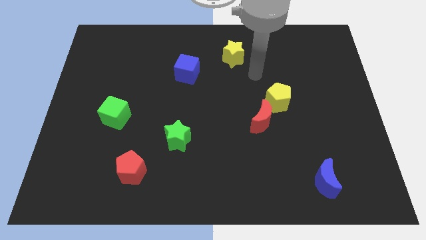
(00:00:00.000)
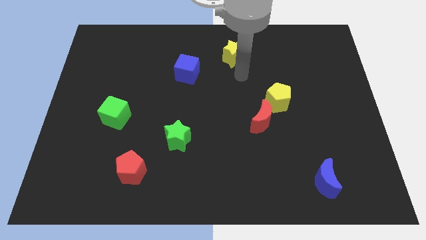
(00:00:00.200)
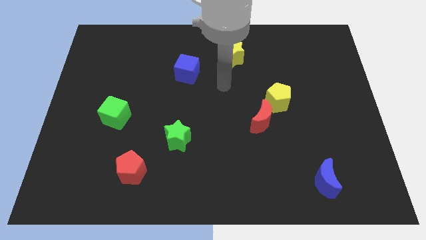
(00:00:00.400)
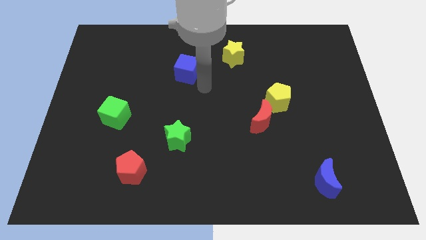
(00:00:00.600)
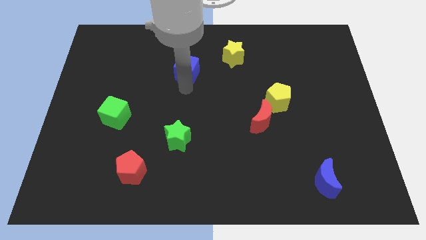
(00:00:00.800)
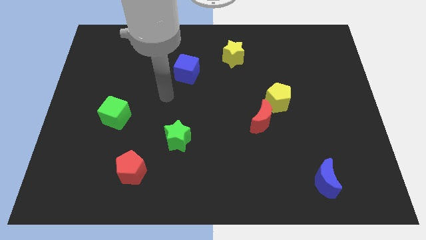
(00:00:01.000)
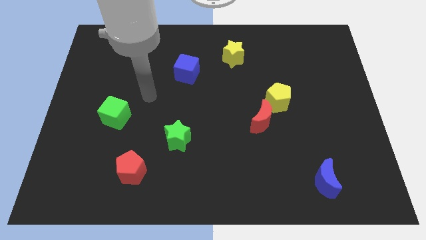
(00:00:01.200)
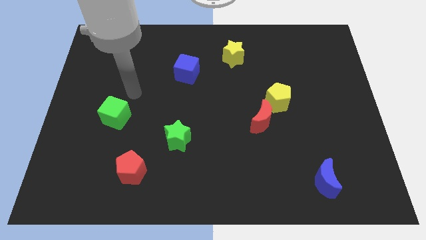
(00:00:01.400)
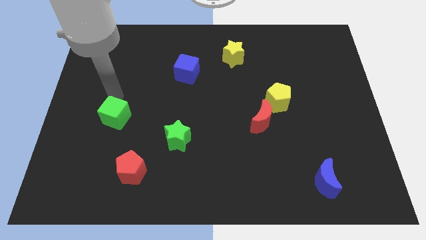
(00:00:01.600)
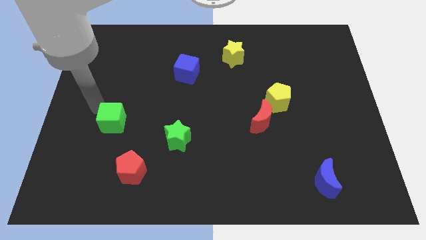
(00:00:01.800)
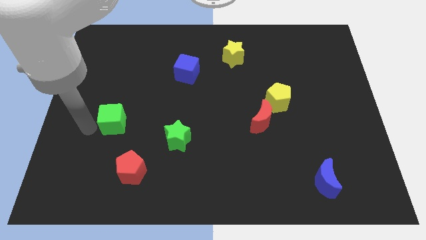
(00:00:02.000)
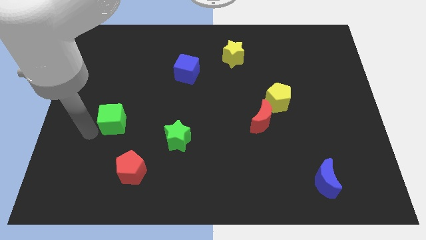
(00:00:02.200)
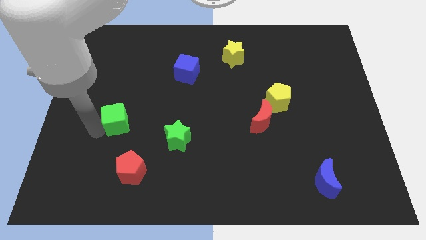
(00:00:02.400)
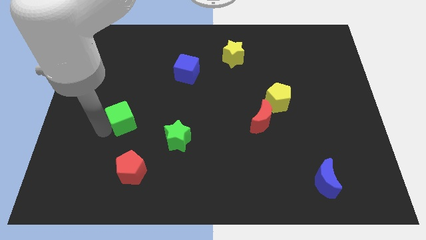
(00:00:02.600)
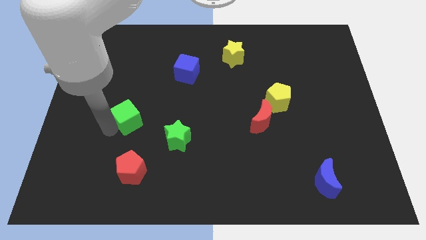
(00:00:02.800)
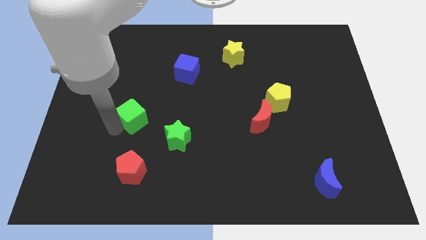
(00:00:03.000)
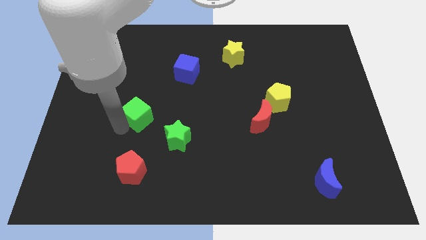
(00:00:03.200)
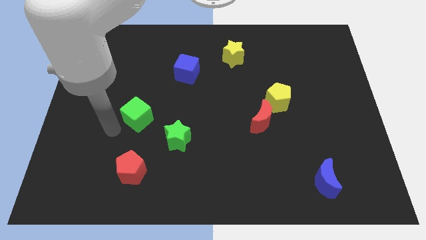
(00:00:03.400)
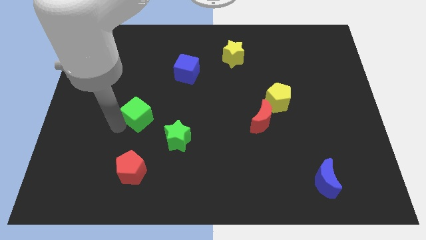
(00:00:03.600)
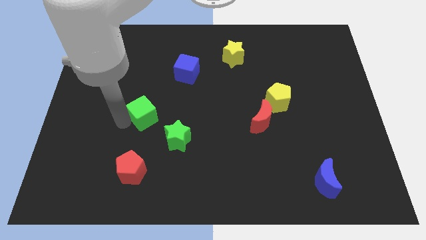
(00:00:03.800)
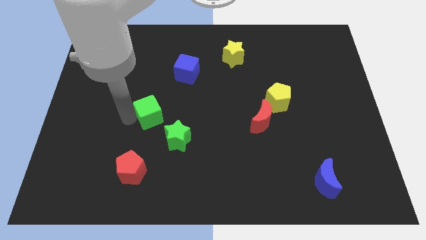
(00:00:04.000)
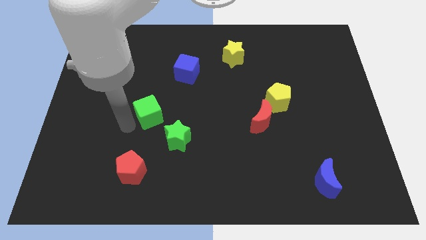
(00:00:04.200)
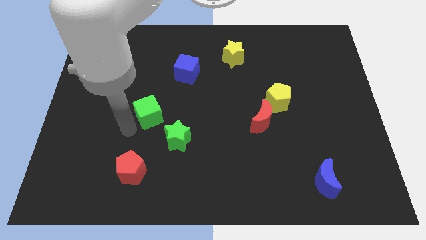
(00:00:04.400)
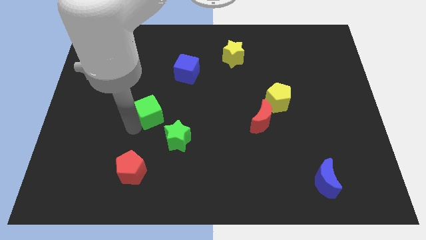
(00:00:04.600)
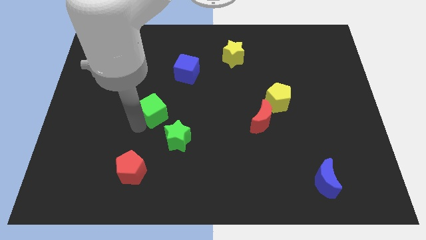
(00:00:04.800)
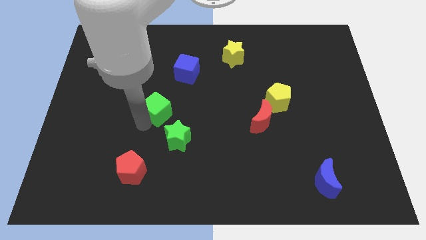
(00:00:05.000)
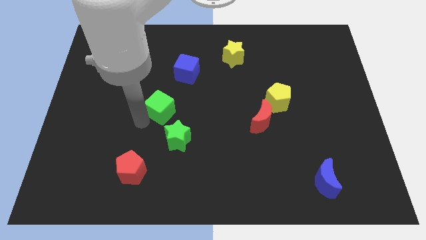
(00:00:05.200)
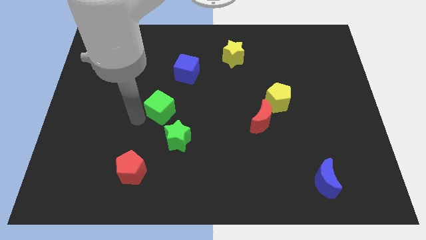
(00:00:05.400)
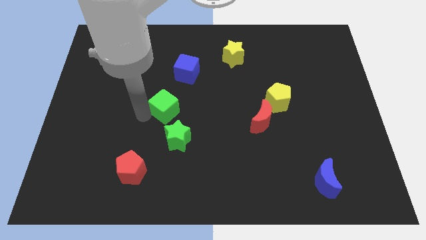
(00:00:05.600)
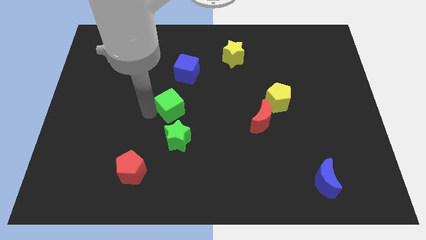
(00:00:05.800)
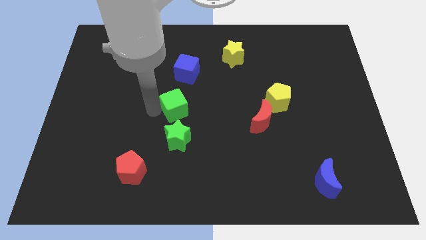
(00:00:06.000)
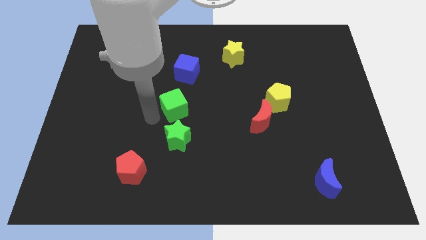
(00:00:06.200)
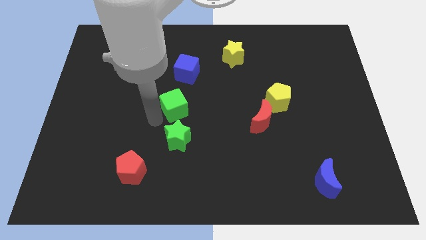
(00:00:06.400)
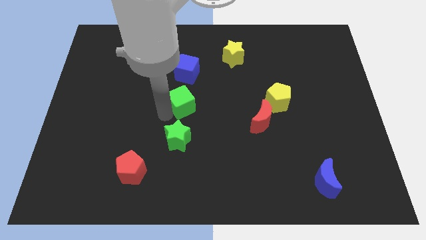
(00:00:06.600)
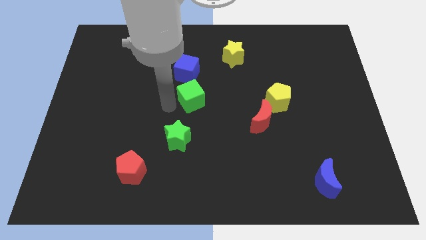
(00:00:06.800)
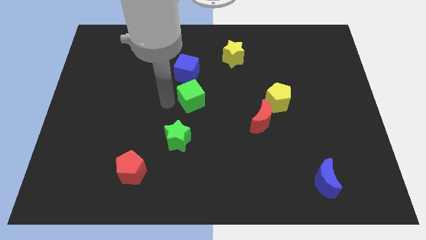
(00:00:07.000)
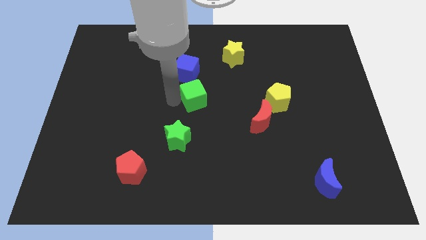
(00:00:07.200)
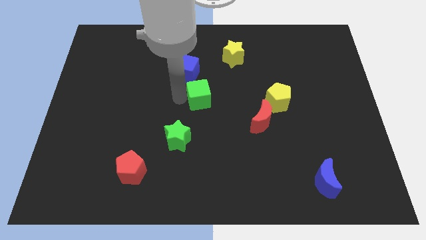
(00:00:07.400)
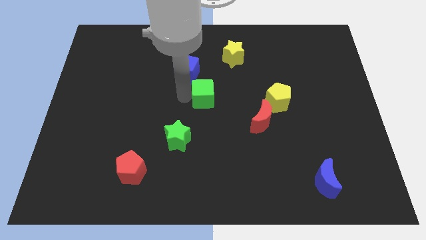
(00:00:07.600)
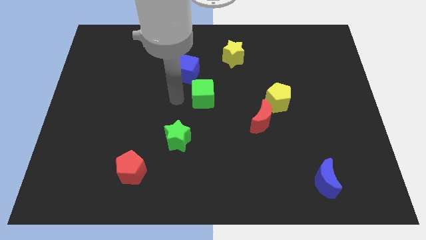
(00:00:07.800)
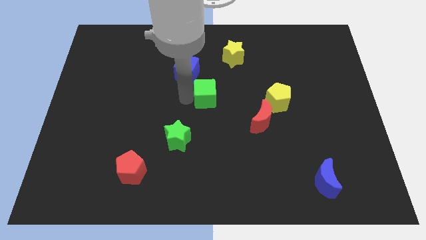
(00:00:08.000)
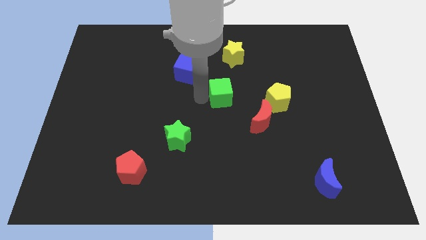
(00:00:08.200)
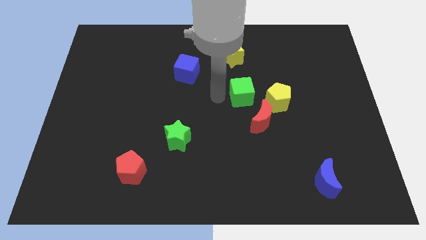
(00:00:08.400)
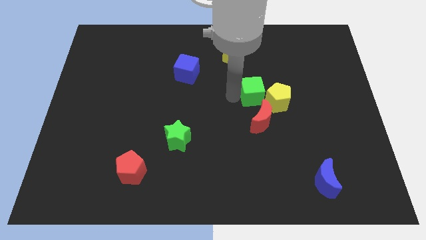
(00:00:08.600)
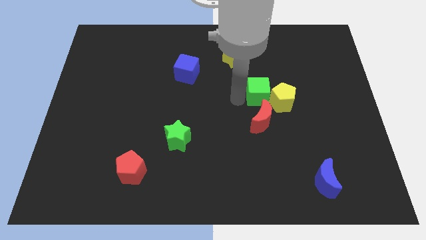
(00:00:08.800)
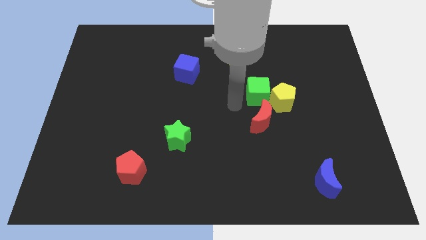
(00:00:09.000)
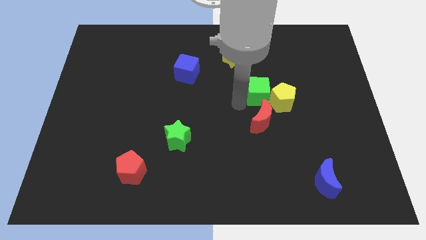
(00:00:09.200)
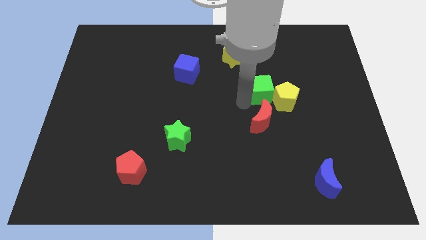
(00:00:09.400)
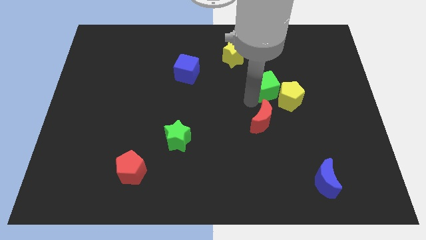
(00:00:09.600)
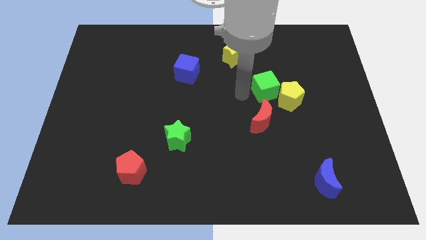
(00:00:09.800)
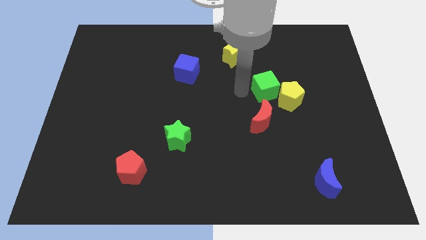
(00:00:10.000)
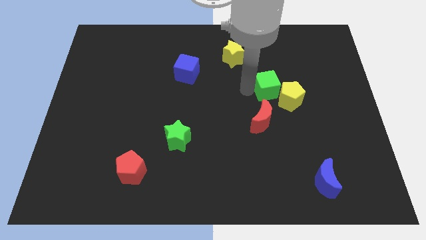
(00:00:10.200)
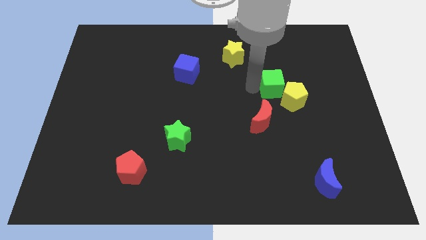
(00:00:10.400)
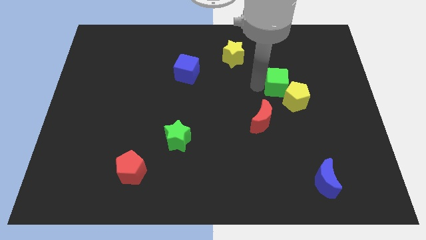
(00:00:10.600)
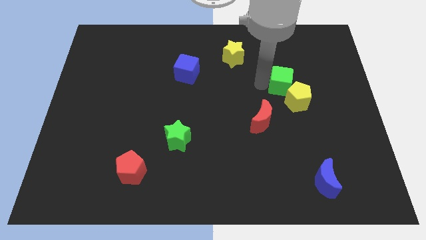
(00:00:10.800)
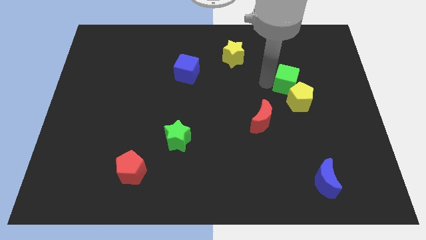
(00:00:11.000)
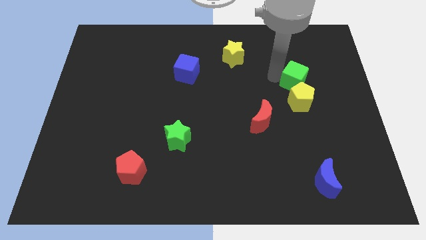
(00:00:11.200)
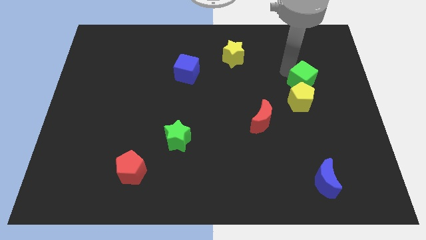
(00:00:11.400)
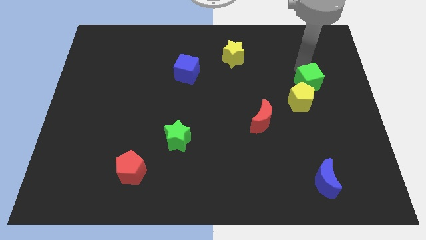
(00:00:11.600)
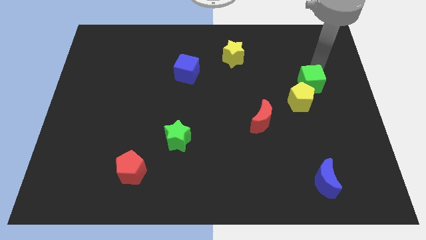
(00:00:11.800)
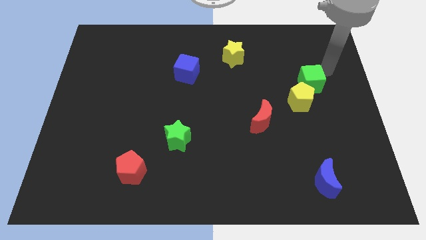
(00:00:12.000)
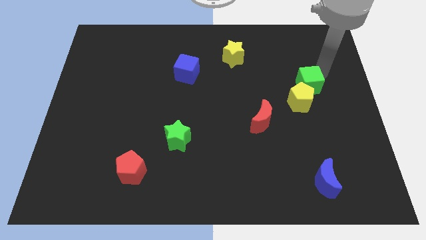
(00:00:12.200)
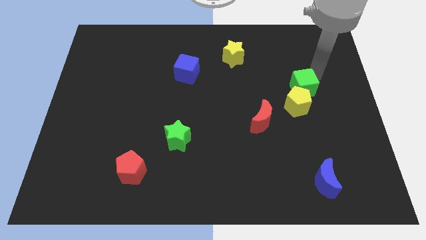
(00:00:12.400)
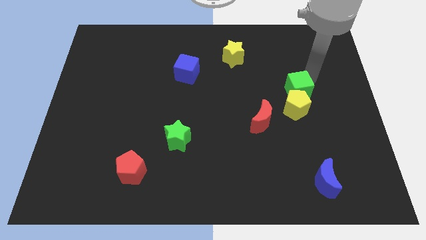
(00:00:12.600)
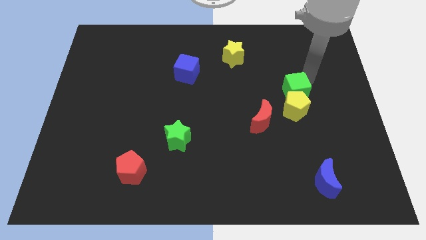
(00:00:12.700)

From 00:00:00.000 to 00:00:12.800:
move the green cube to the top right of the red moon

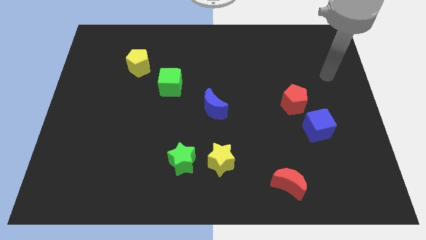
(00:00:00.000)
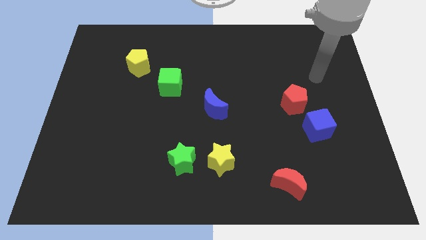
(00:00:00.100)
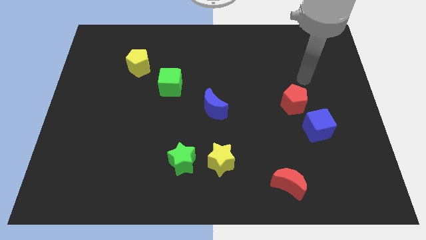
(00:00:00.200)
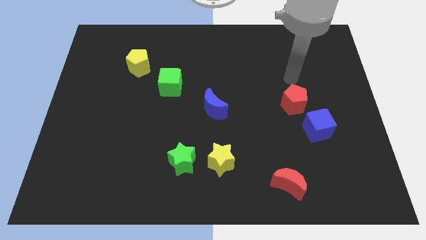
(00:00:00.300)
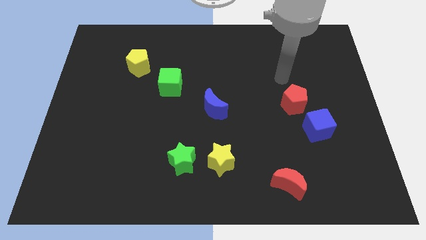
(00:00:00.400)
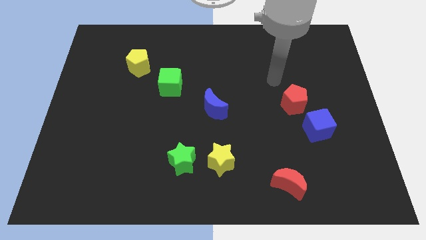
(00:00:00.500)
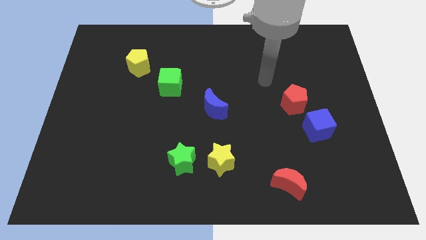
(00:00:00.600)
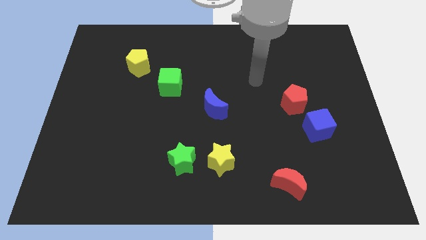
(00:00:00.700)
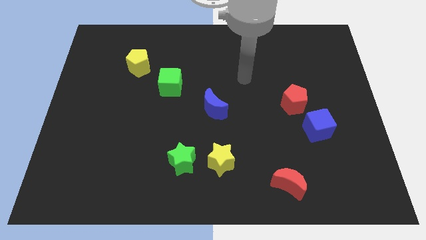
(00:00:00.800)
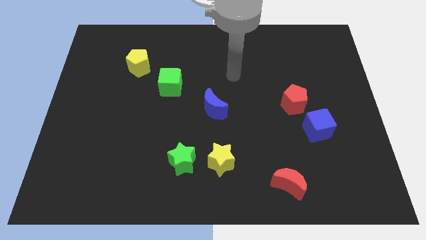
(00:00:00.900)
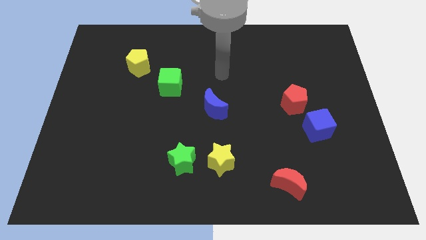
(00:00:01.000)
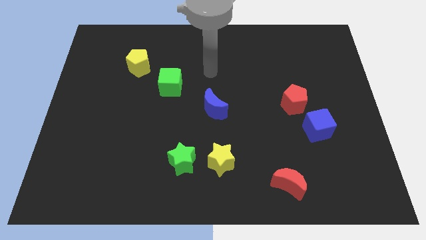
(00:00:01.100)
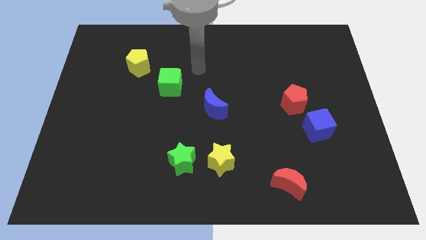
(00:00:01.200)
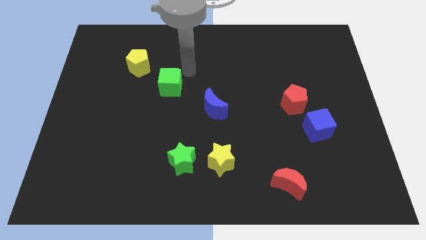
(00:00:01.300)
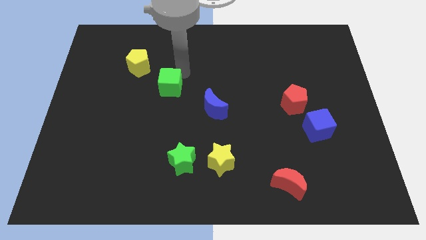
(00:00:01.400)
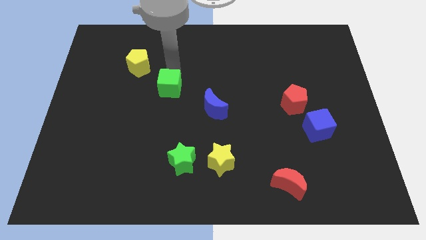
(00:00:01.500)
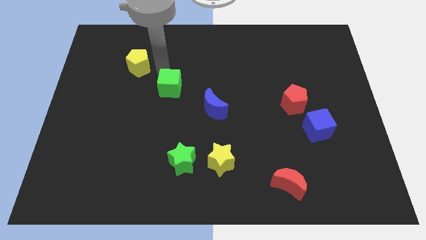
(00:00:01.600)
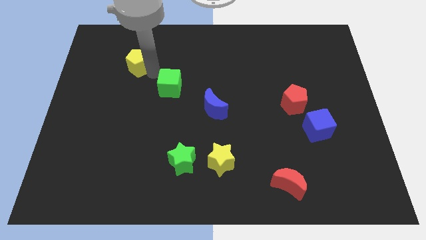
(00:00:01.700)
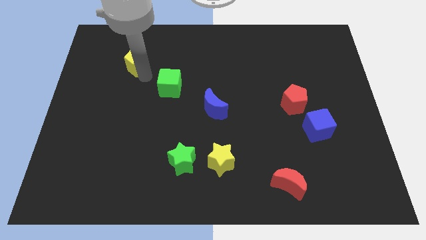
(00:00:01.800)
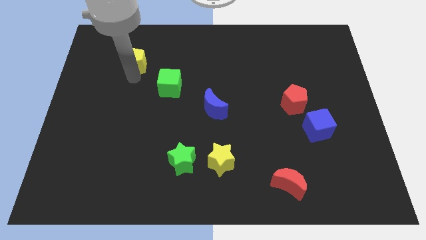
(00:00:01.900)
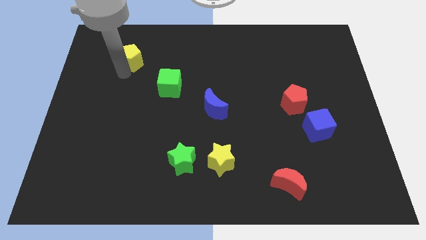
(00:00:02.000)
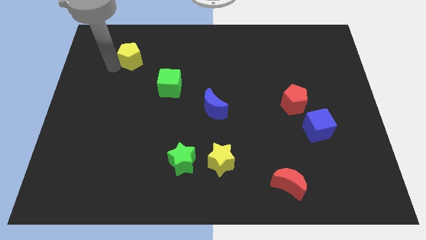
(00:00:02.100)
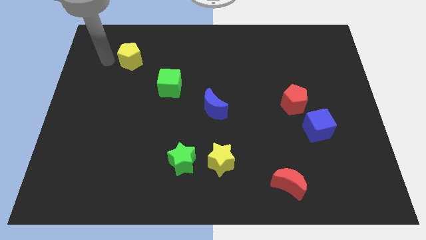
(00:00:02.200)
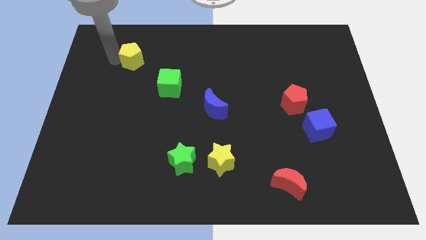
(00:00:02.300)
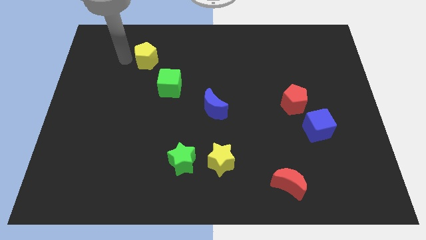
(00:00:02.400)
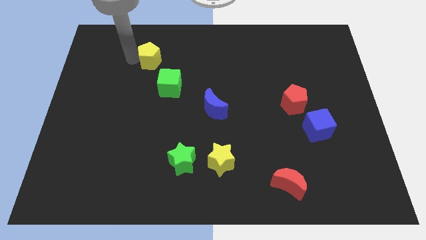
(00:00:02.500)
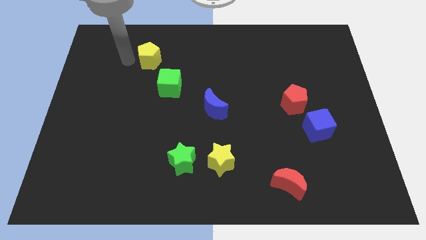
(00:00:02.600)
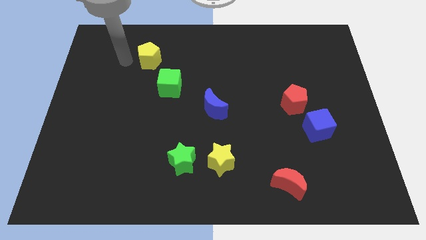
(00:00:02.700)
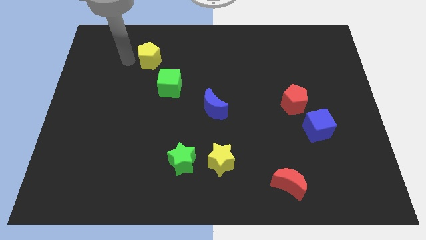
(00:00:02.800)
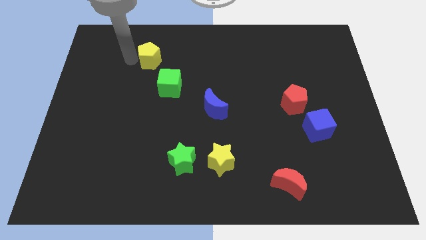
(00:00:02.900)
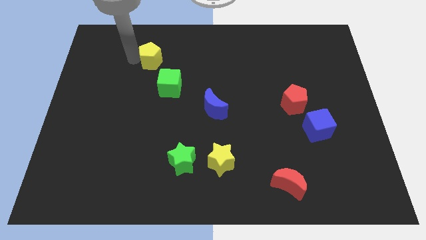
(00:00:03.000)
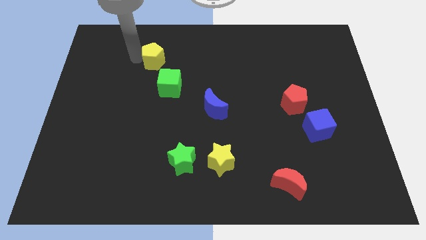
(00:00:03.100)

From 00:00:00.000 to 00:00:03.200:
push the yellow pentagon above the green cube
